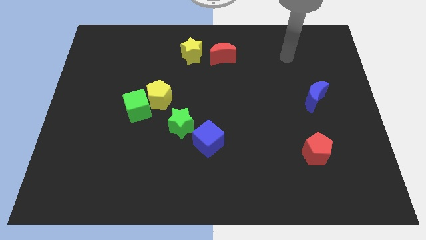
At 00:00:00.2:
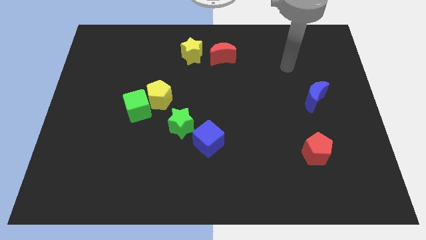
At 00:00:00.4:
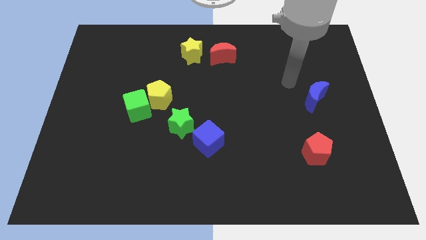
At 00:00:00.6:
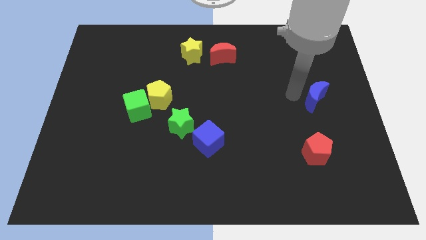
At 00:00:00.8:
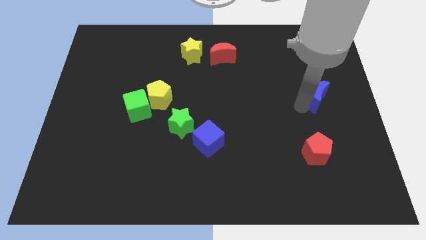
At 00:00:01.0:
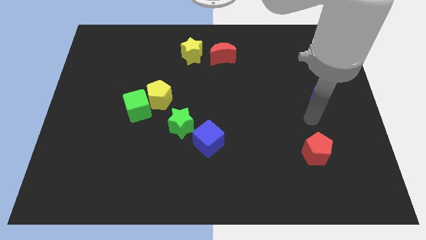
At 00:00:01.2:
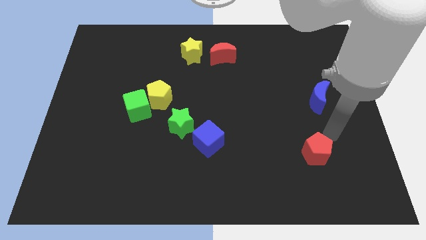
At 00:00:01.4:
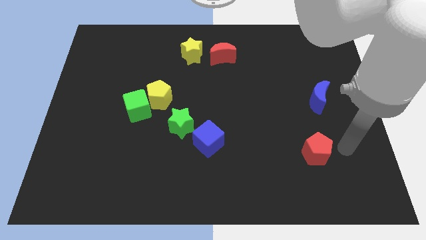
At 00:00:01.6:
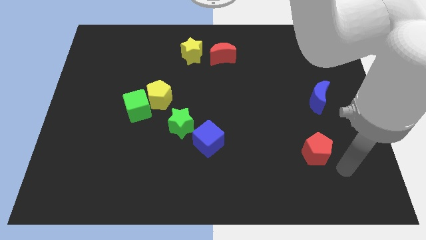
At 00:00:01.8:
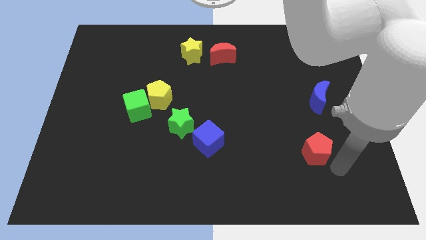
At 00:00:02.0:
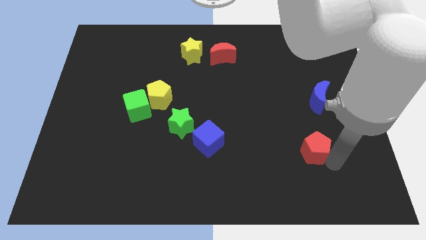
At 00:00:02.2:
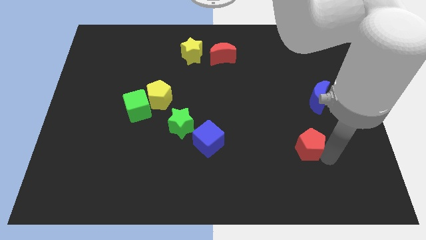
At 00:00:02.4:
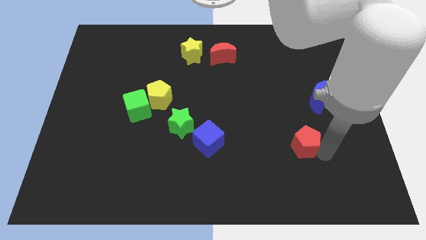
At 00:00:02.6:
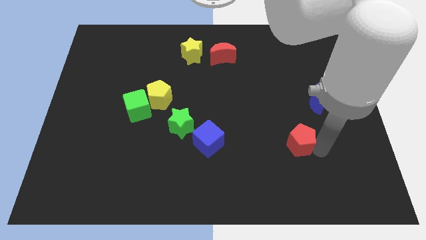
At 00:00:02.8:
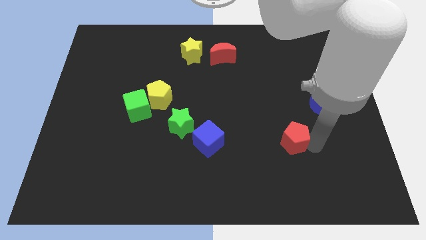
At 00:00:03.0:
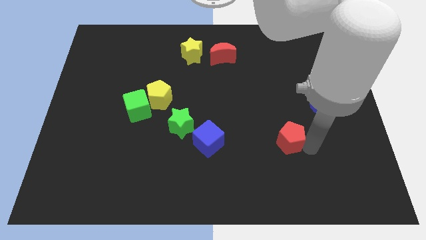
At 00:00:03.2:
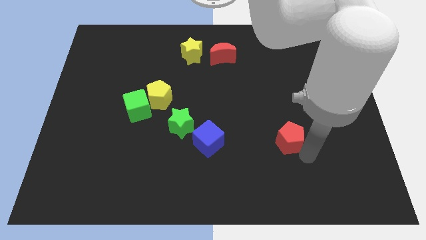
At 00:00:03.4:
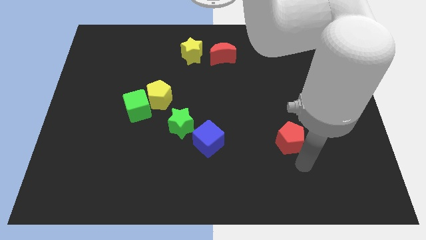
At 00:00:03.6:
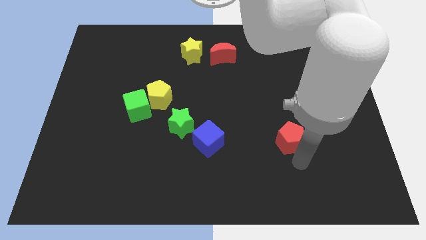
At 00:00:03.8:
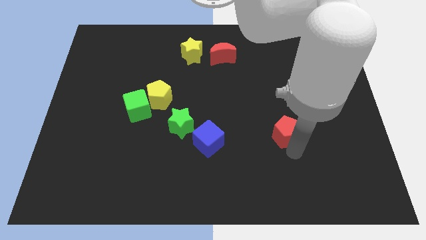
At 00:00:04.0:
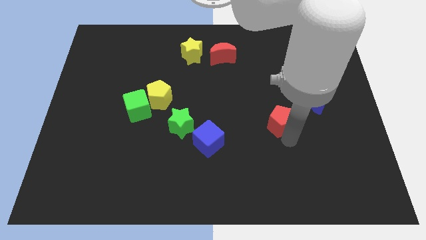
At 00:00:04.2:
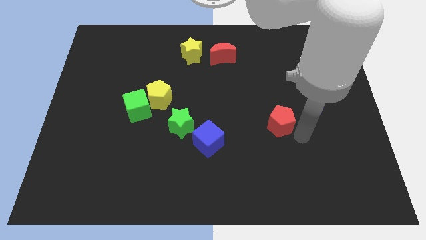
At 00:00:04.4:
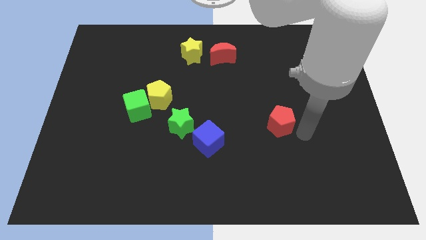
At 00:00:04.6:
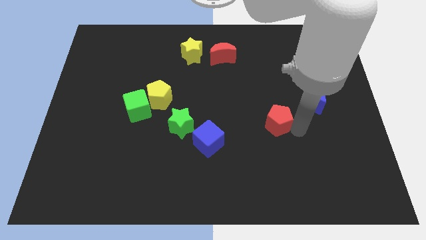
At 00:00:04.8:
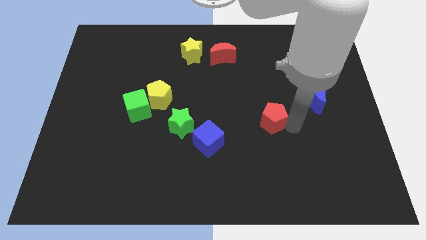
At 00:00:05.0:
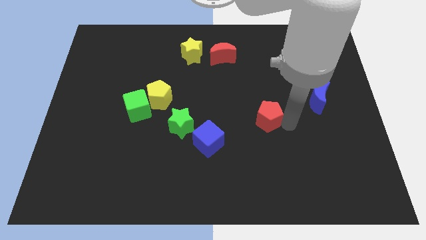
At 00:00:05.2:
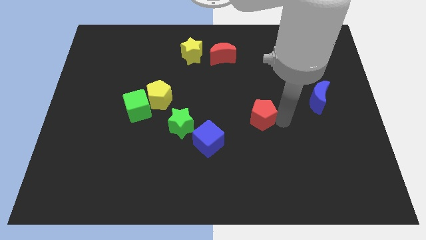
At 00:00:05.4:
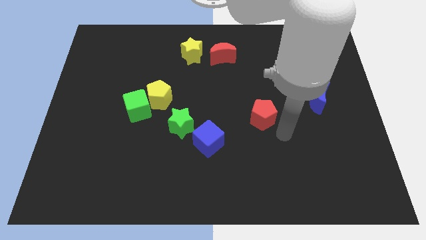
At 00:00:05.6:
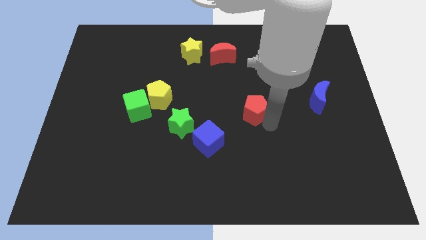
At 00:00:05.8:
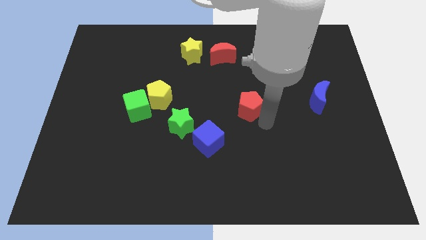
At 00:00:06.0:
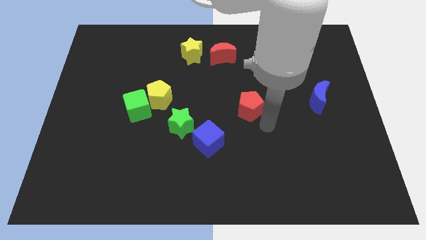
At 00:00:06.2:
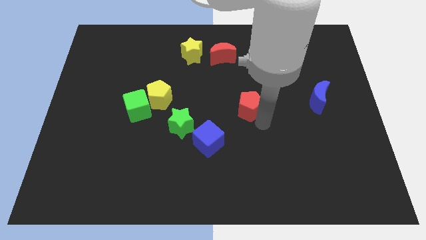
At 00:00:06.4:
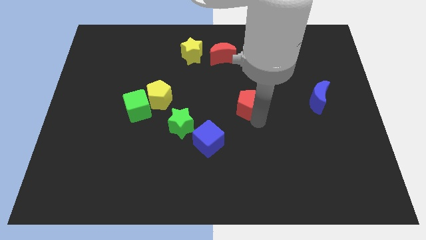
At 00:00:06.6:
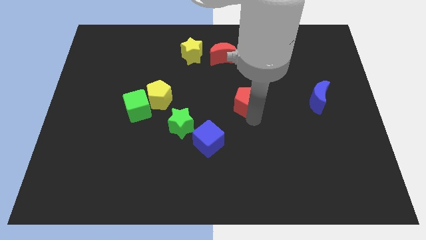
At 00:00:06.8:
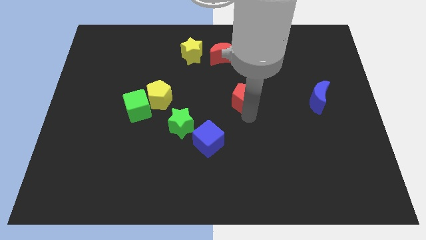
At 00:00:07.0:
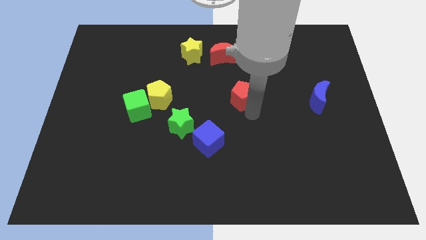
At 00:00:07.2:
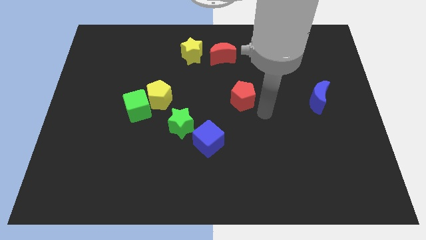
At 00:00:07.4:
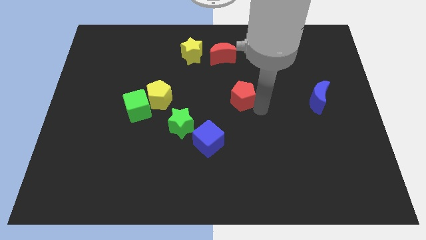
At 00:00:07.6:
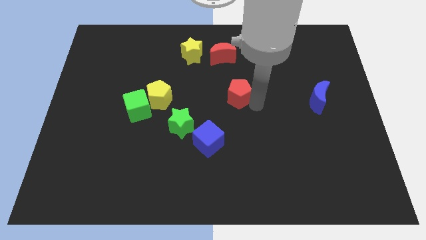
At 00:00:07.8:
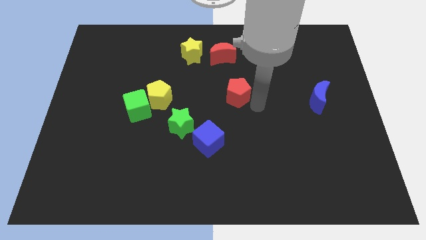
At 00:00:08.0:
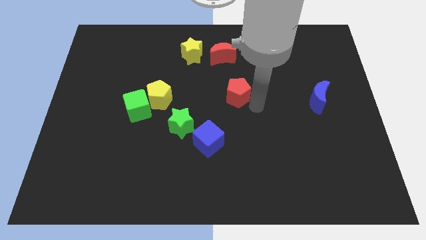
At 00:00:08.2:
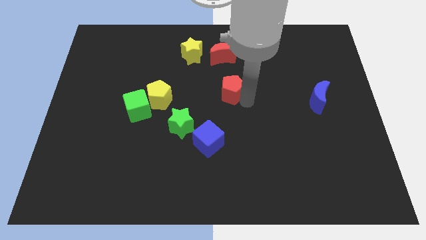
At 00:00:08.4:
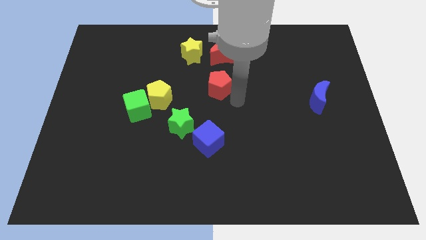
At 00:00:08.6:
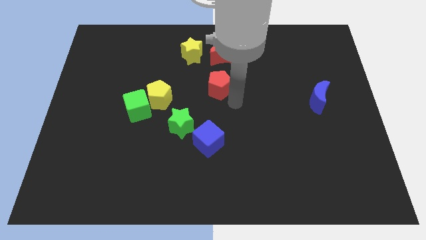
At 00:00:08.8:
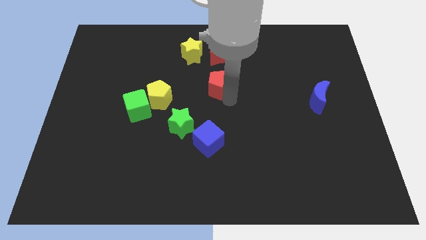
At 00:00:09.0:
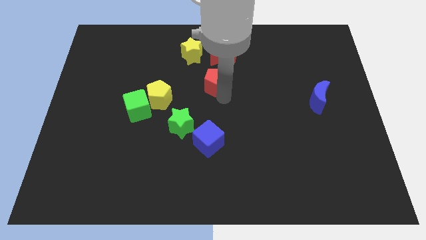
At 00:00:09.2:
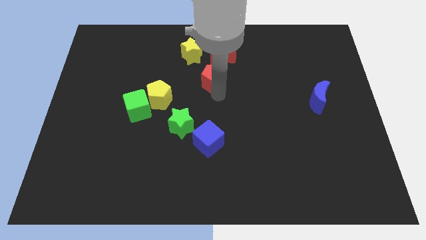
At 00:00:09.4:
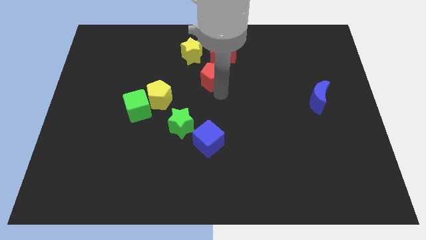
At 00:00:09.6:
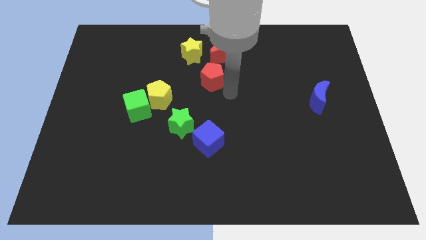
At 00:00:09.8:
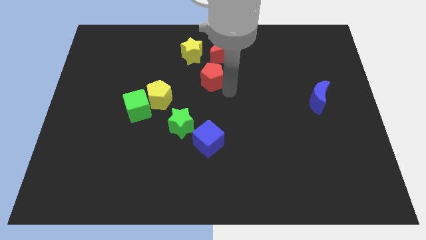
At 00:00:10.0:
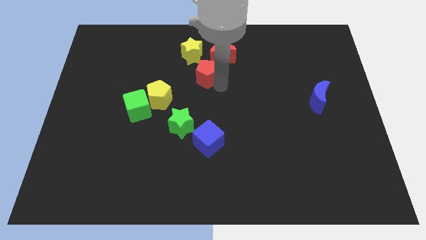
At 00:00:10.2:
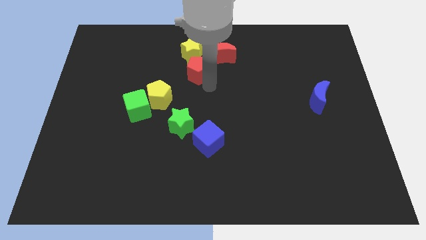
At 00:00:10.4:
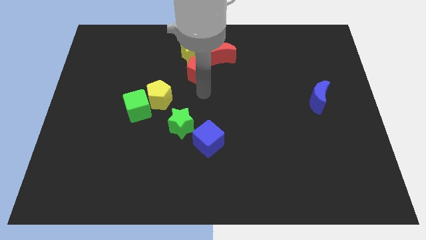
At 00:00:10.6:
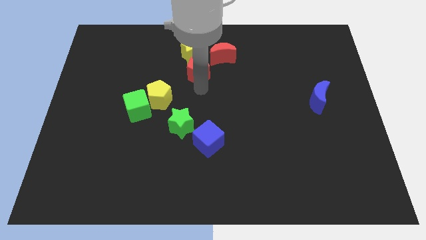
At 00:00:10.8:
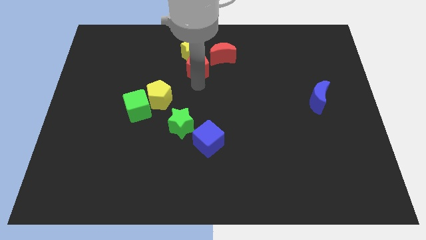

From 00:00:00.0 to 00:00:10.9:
slide the red pentagon close to the yellow star

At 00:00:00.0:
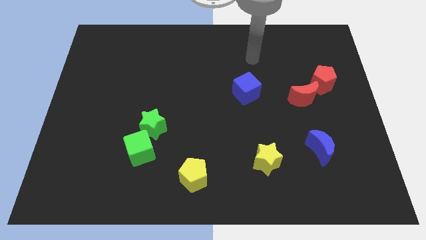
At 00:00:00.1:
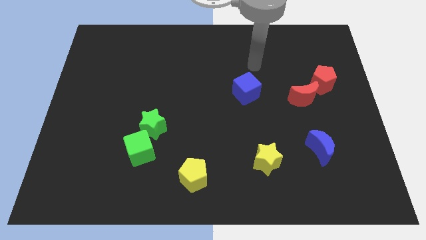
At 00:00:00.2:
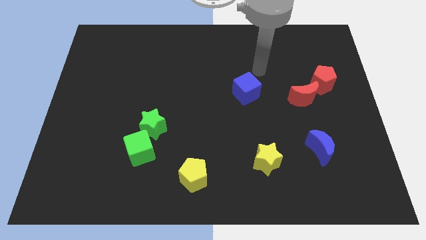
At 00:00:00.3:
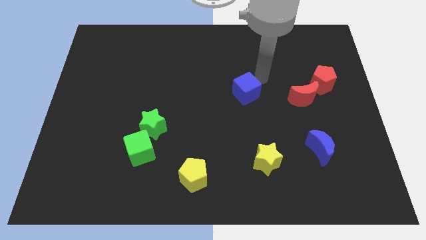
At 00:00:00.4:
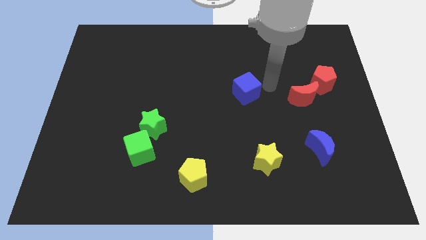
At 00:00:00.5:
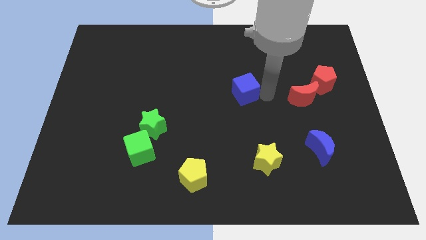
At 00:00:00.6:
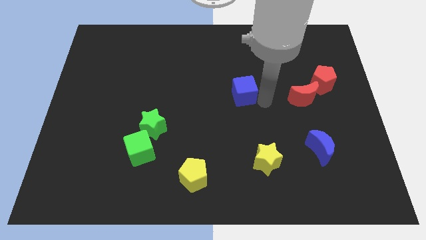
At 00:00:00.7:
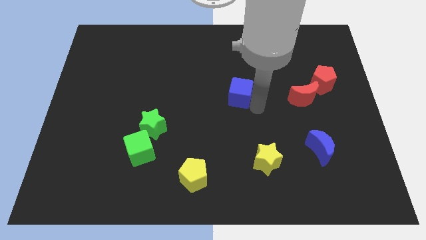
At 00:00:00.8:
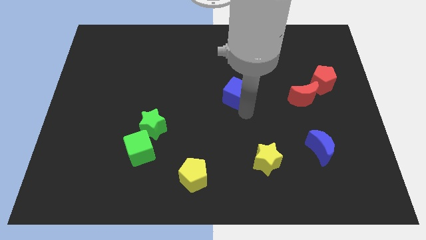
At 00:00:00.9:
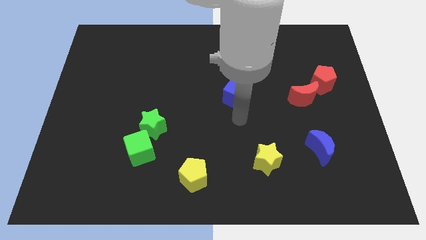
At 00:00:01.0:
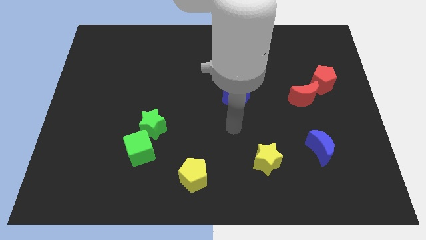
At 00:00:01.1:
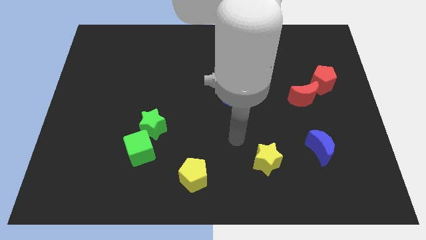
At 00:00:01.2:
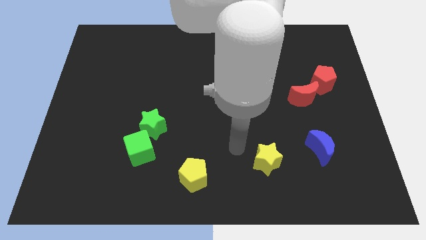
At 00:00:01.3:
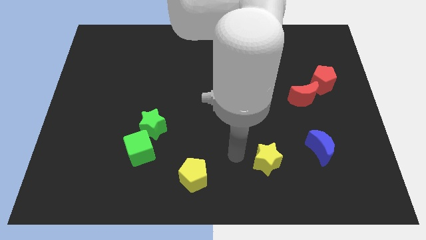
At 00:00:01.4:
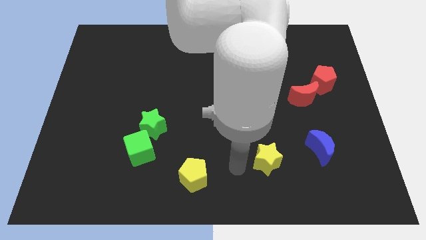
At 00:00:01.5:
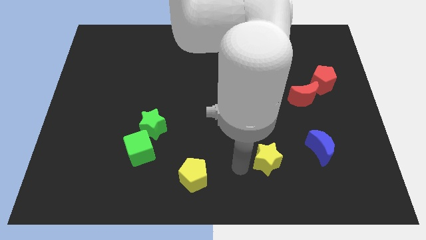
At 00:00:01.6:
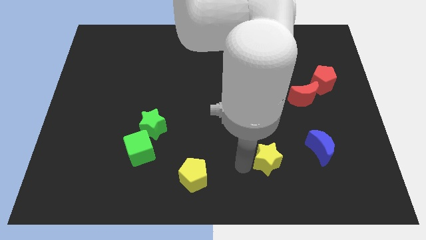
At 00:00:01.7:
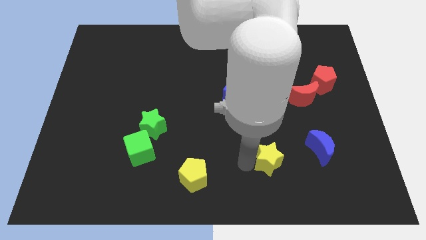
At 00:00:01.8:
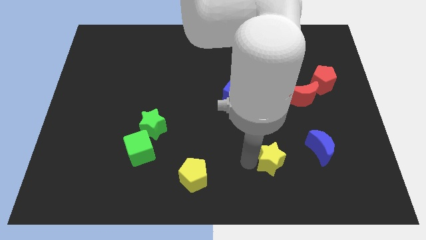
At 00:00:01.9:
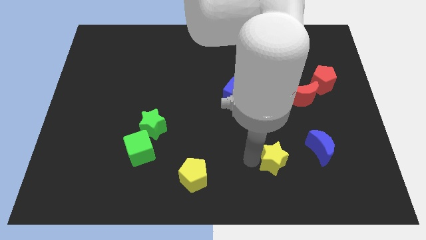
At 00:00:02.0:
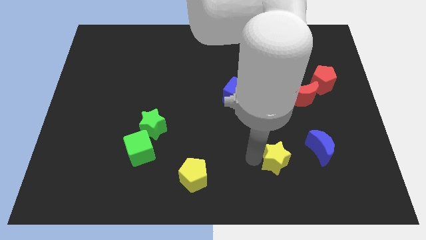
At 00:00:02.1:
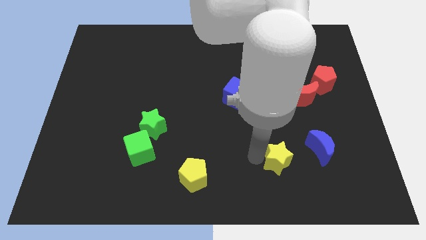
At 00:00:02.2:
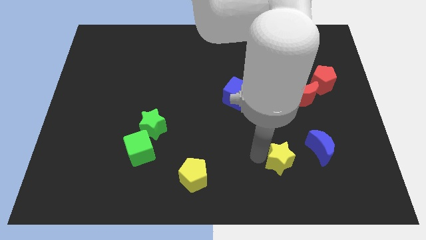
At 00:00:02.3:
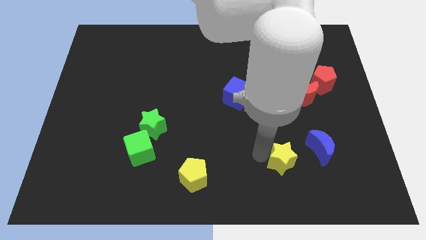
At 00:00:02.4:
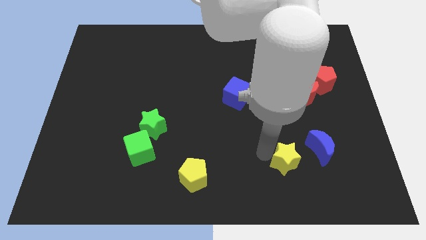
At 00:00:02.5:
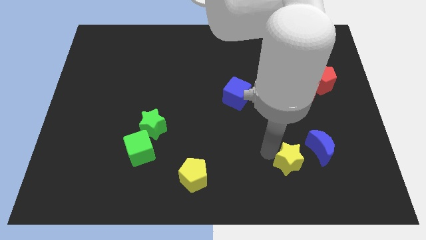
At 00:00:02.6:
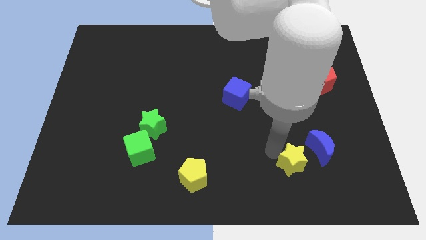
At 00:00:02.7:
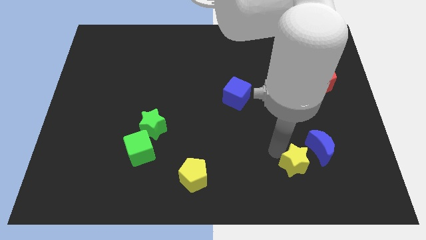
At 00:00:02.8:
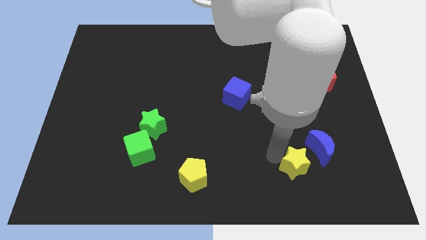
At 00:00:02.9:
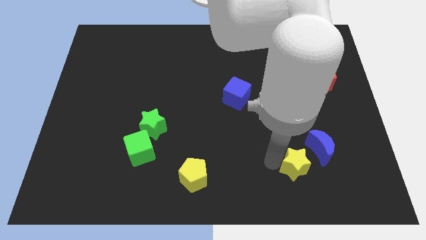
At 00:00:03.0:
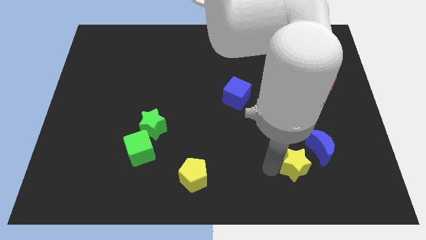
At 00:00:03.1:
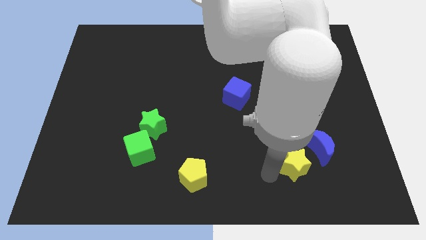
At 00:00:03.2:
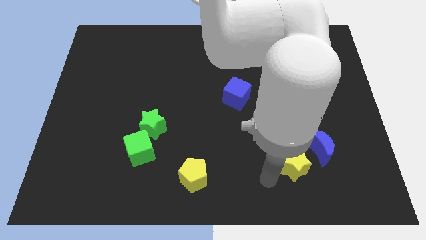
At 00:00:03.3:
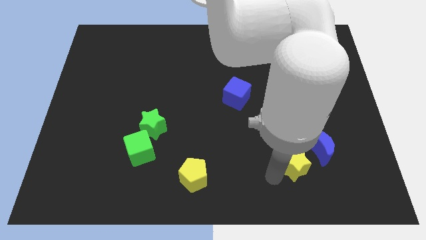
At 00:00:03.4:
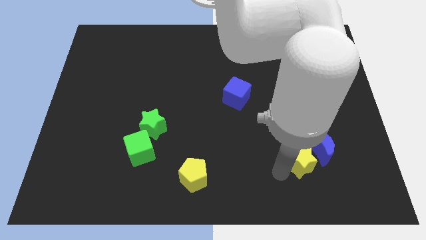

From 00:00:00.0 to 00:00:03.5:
put the yellow star to the blue moon
